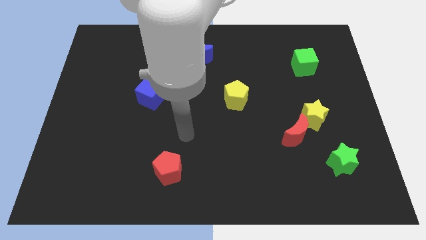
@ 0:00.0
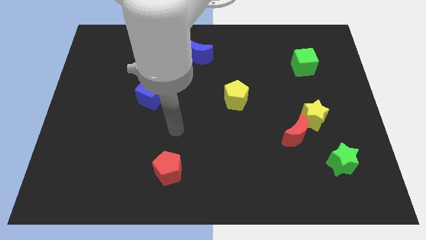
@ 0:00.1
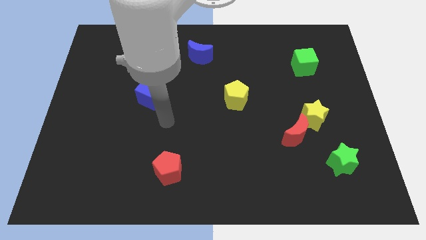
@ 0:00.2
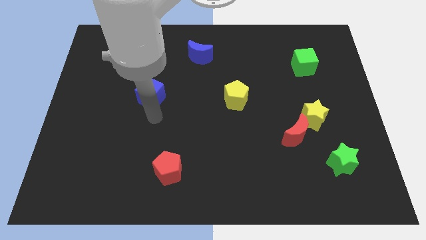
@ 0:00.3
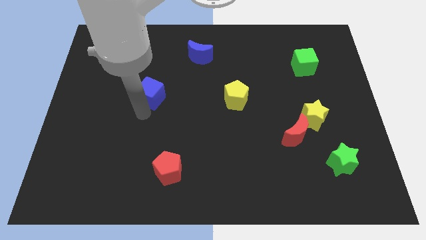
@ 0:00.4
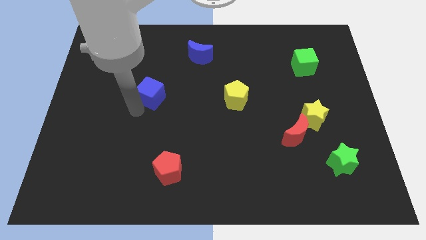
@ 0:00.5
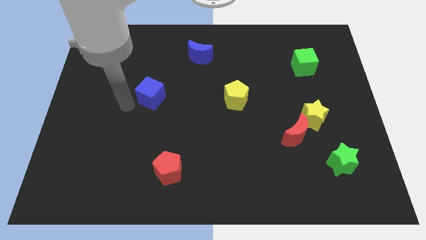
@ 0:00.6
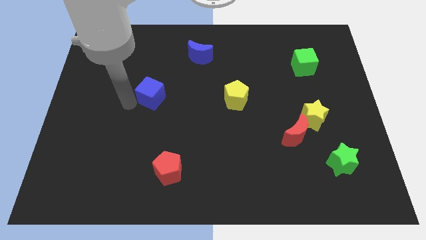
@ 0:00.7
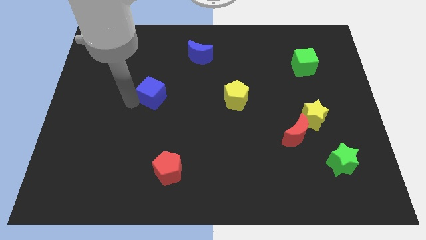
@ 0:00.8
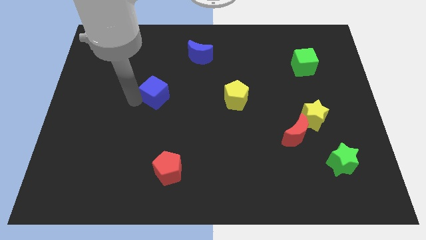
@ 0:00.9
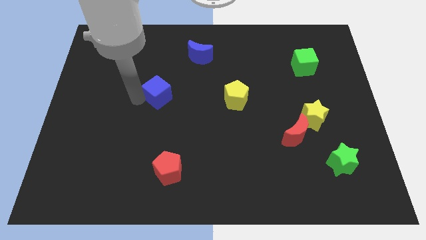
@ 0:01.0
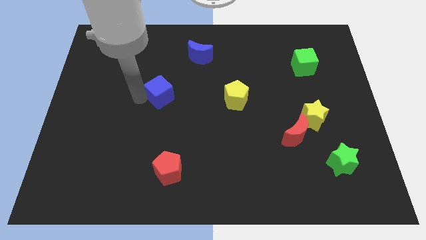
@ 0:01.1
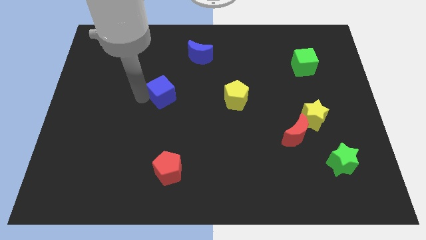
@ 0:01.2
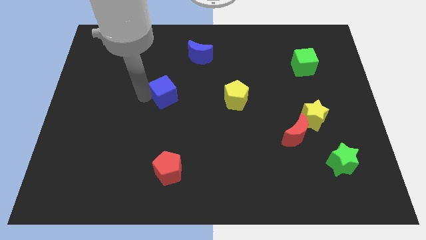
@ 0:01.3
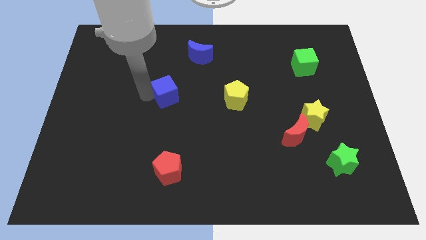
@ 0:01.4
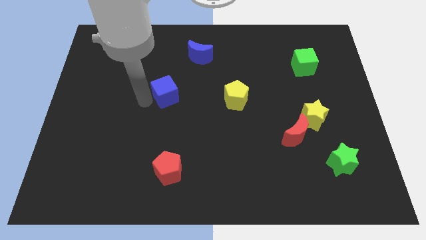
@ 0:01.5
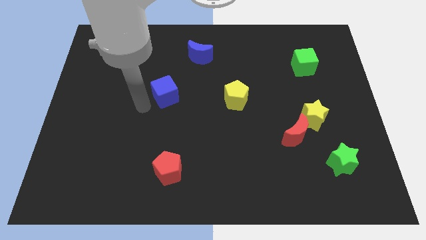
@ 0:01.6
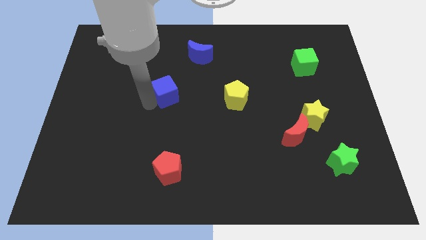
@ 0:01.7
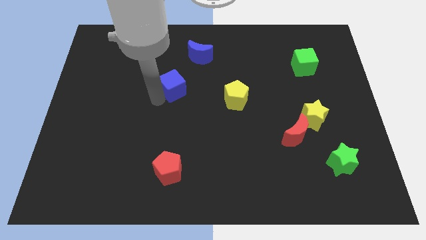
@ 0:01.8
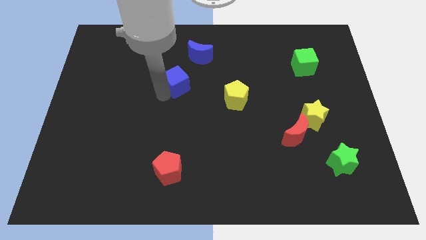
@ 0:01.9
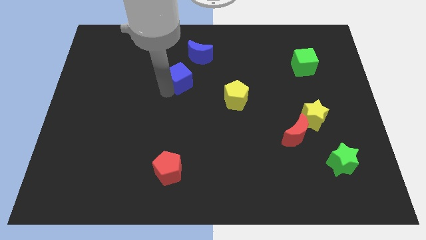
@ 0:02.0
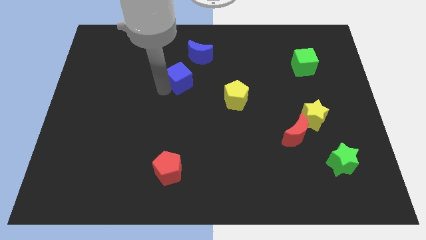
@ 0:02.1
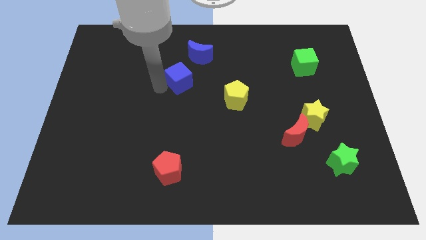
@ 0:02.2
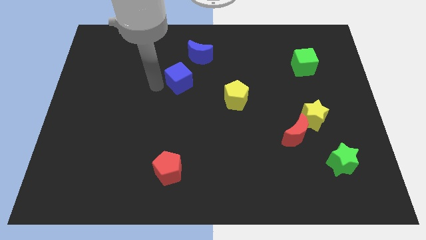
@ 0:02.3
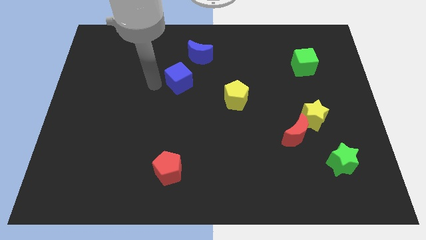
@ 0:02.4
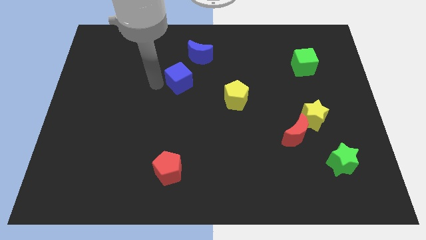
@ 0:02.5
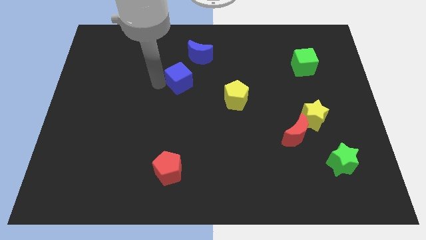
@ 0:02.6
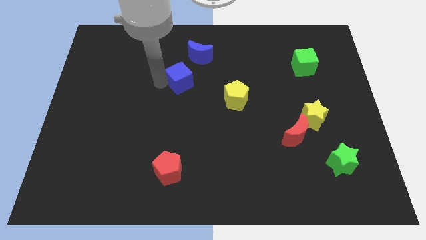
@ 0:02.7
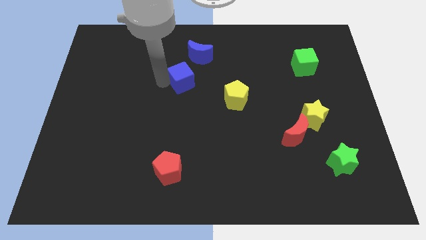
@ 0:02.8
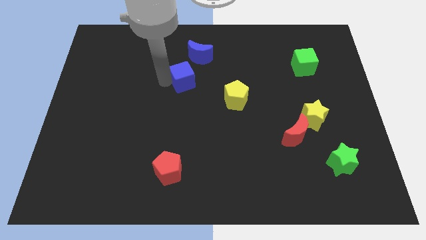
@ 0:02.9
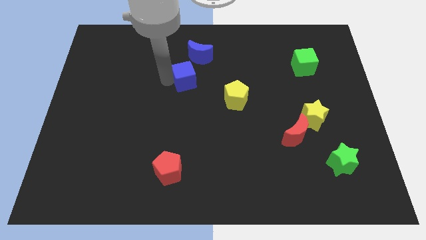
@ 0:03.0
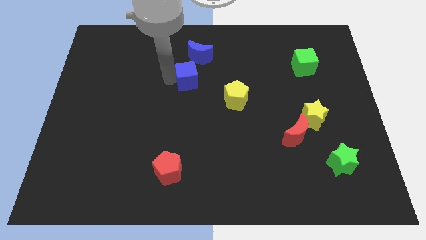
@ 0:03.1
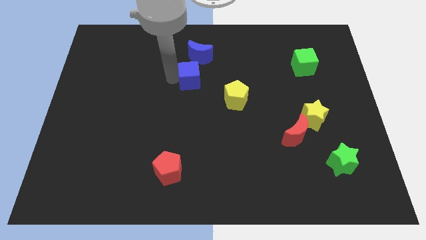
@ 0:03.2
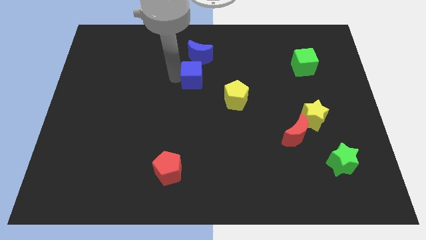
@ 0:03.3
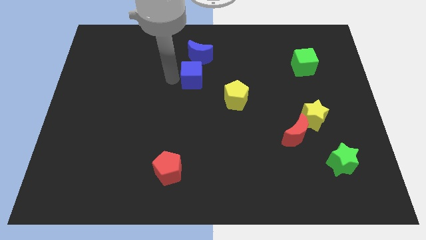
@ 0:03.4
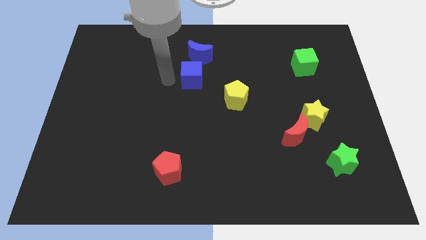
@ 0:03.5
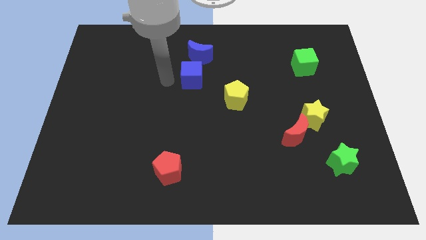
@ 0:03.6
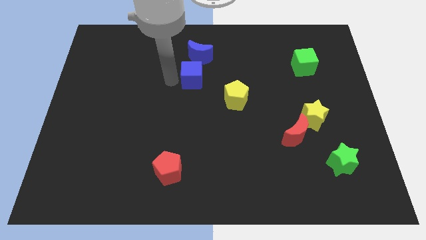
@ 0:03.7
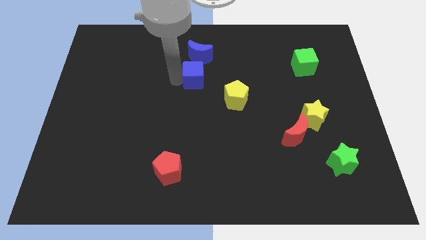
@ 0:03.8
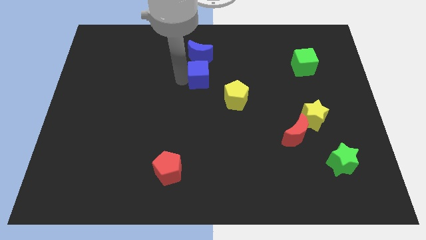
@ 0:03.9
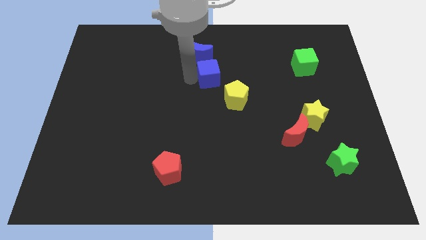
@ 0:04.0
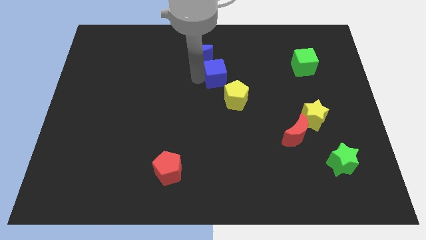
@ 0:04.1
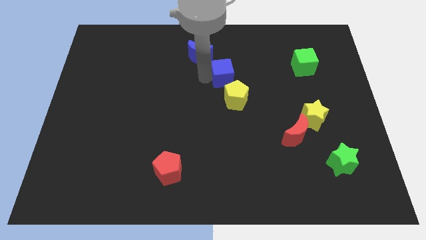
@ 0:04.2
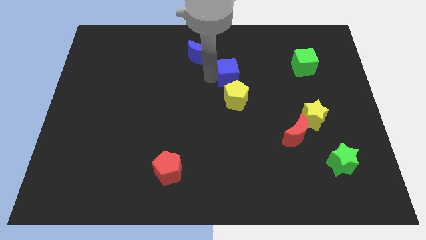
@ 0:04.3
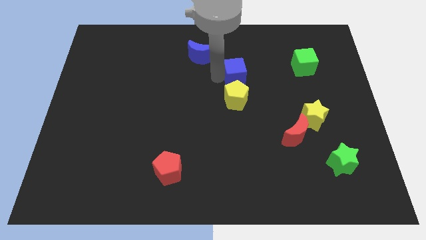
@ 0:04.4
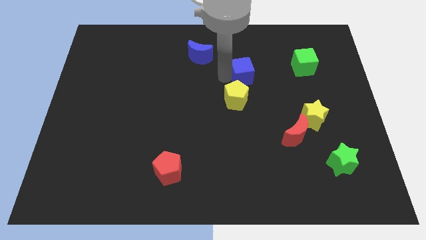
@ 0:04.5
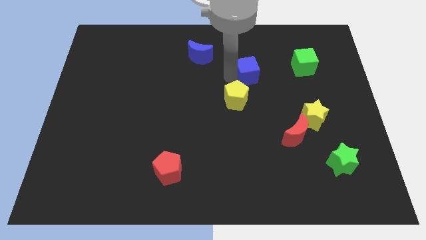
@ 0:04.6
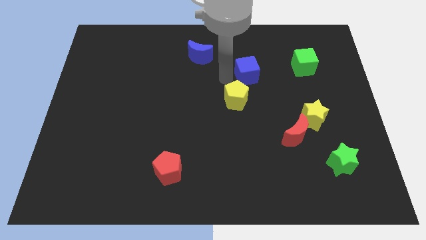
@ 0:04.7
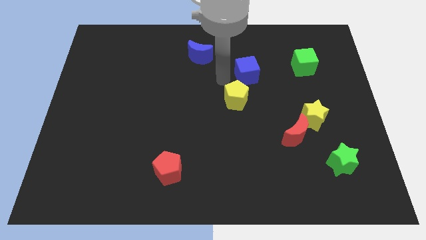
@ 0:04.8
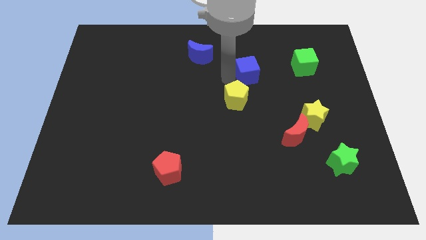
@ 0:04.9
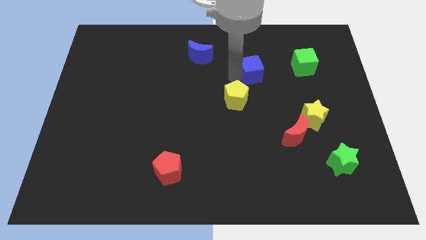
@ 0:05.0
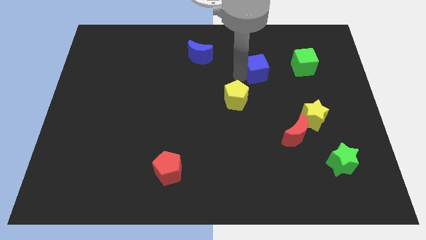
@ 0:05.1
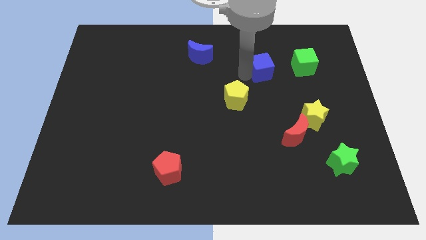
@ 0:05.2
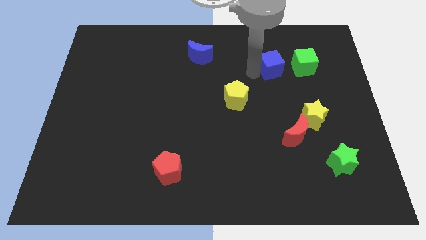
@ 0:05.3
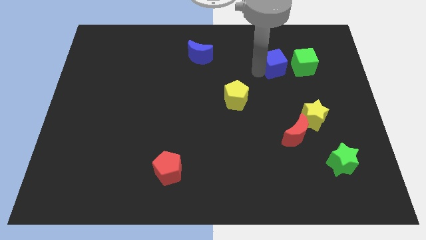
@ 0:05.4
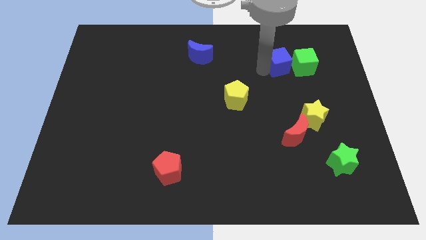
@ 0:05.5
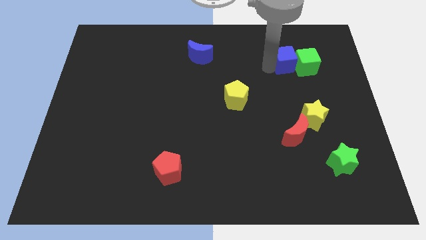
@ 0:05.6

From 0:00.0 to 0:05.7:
slide the blue cube next to the green cube

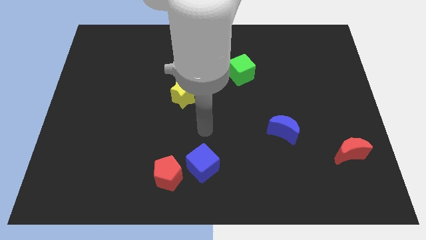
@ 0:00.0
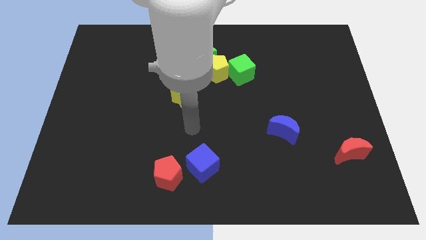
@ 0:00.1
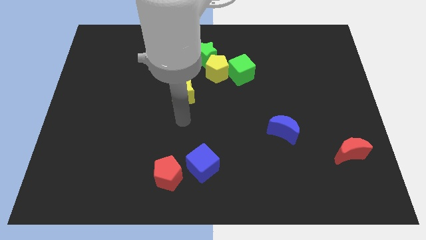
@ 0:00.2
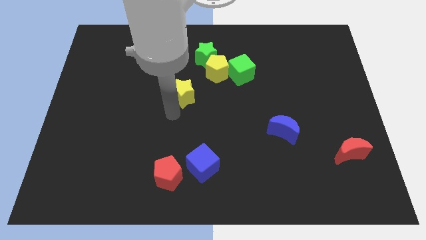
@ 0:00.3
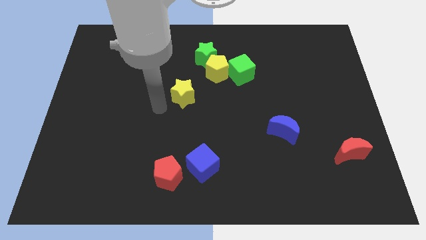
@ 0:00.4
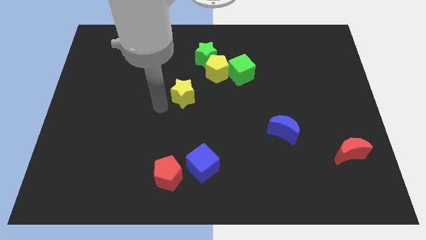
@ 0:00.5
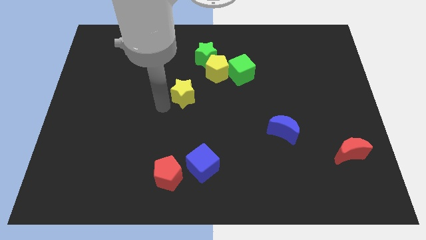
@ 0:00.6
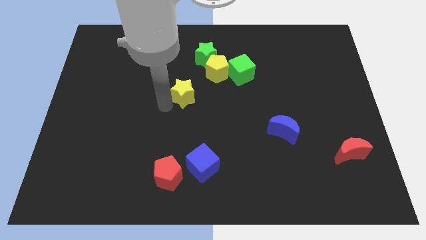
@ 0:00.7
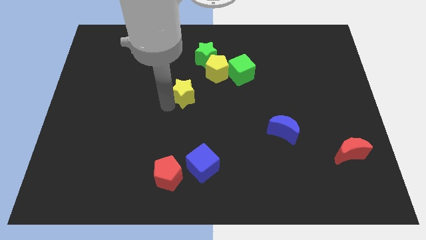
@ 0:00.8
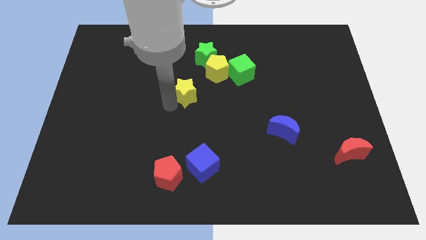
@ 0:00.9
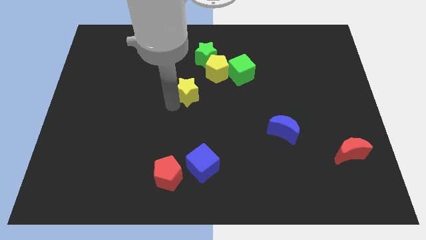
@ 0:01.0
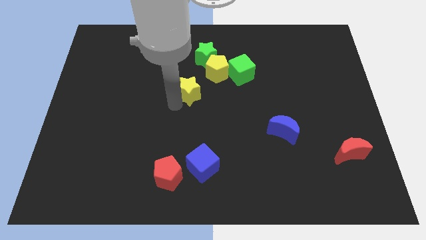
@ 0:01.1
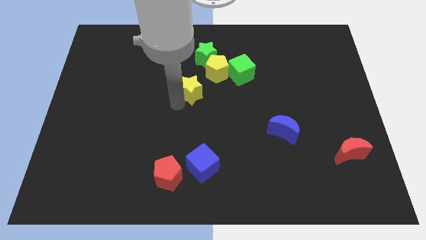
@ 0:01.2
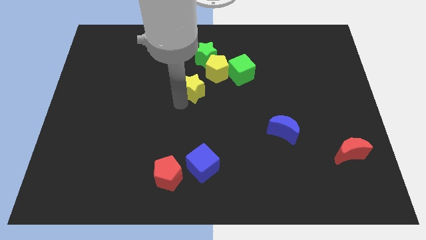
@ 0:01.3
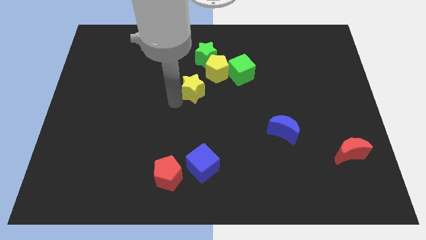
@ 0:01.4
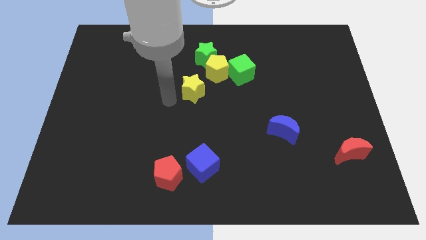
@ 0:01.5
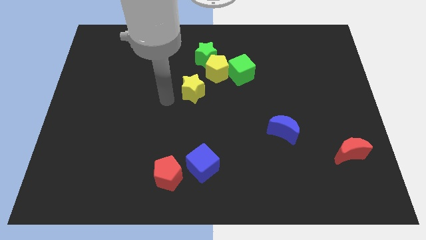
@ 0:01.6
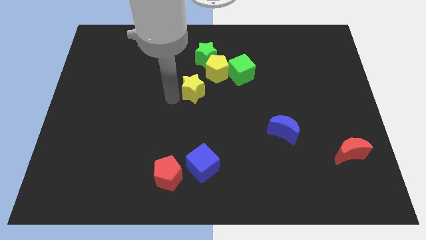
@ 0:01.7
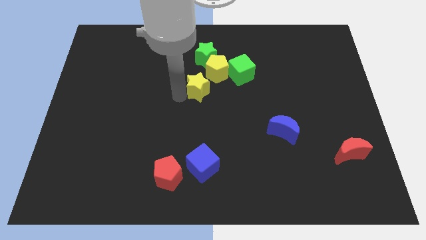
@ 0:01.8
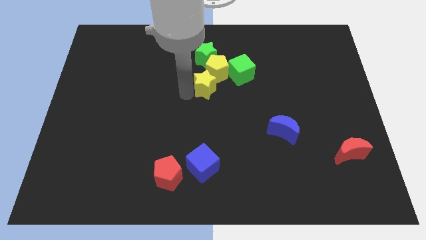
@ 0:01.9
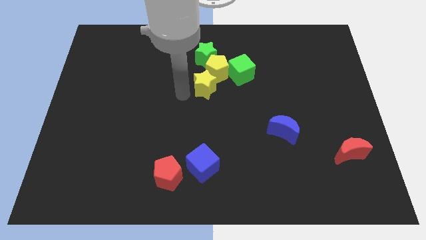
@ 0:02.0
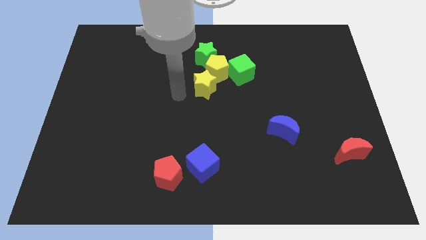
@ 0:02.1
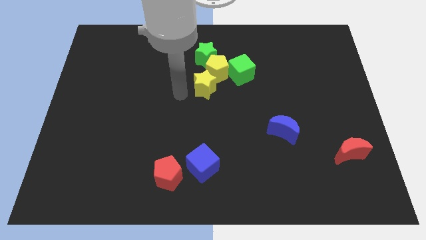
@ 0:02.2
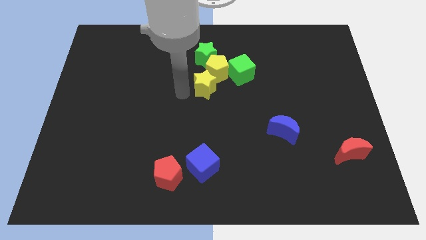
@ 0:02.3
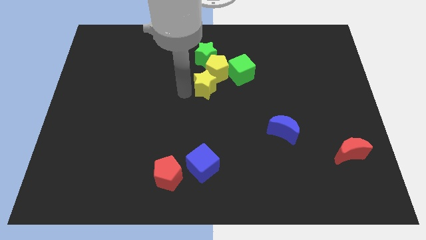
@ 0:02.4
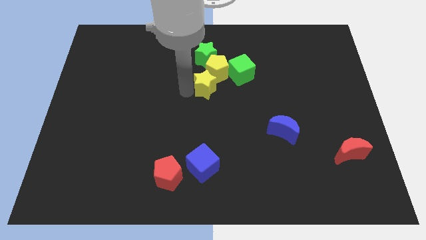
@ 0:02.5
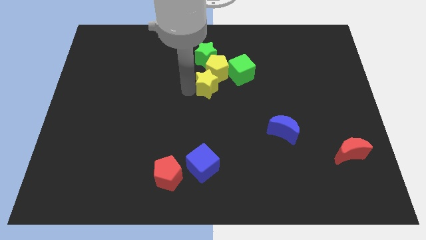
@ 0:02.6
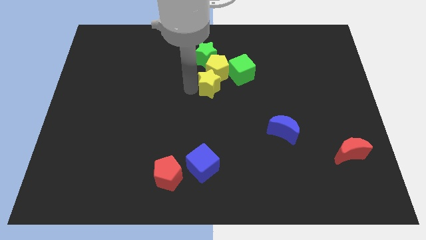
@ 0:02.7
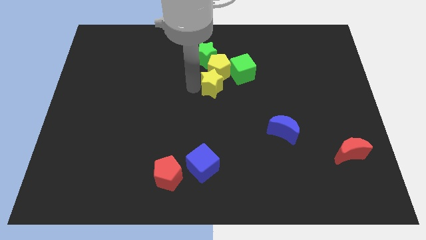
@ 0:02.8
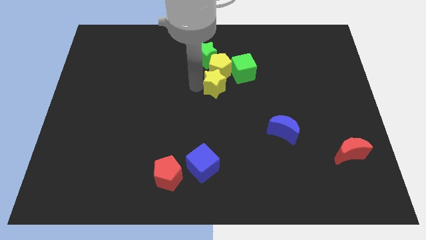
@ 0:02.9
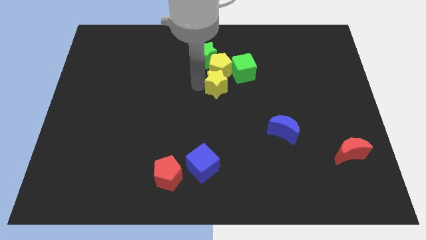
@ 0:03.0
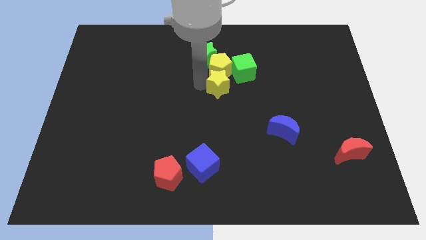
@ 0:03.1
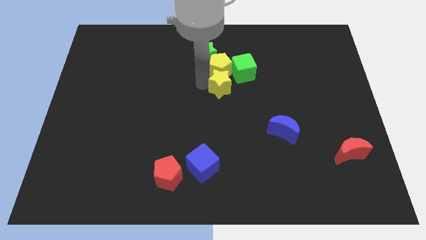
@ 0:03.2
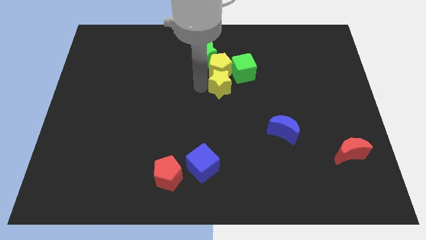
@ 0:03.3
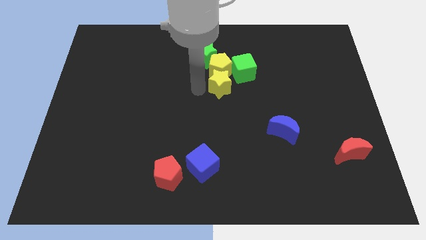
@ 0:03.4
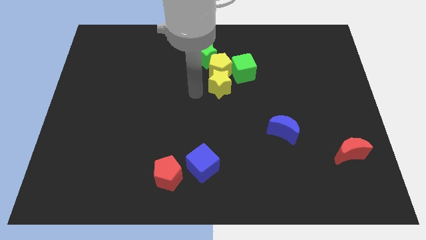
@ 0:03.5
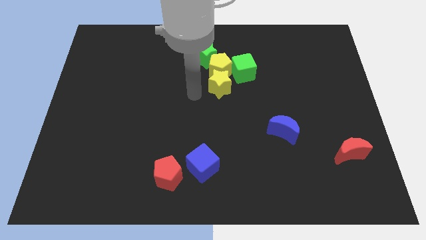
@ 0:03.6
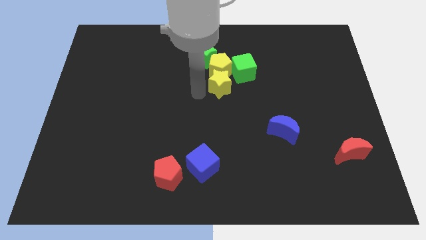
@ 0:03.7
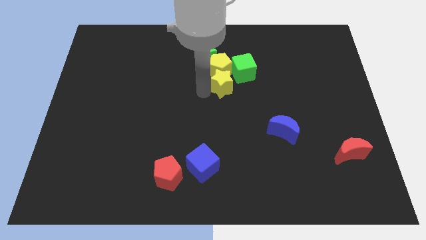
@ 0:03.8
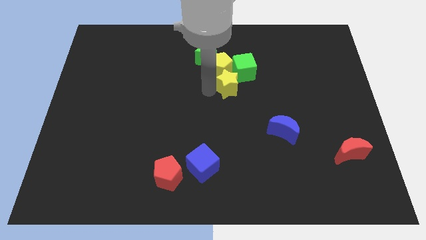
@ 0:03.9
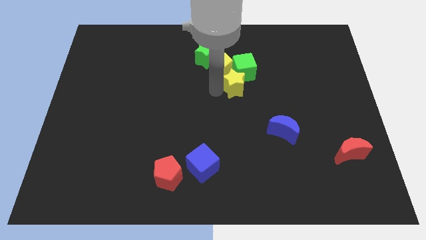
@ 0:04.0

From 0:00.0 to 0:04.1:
put the yellow star close to the green cube
